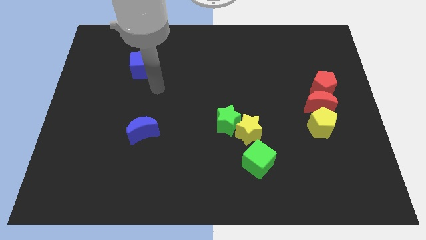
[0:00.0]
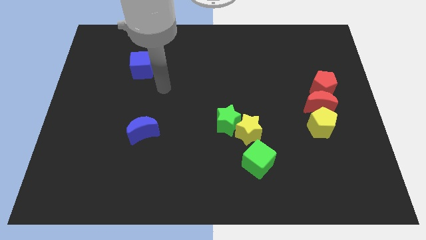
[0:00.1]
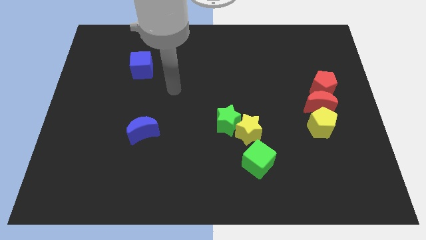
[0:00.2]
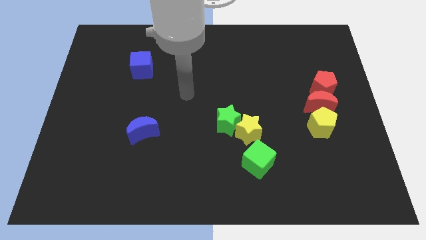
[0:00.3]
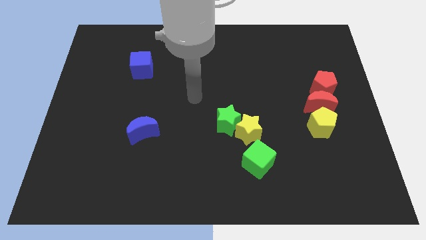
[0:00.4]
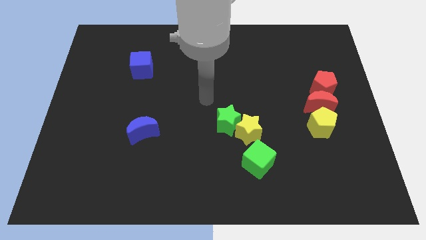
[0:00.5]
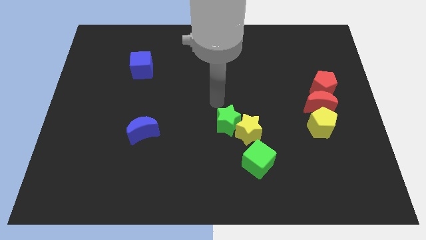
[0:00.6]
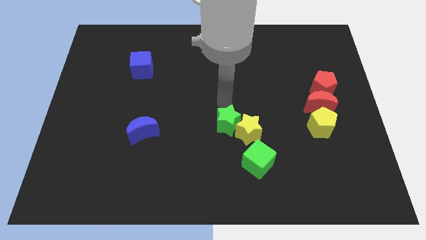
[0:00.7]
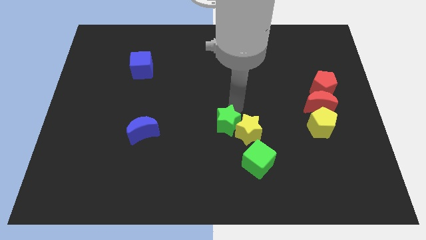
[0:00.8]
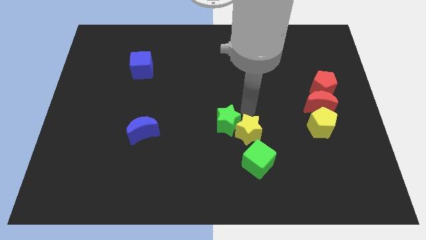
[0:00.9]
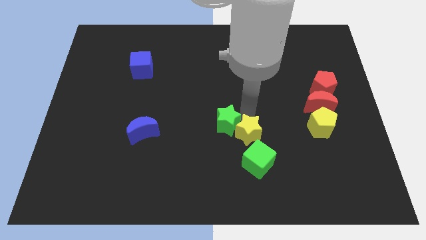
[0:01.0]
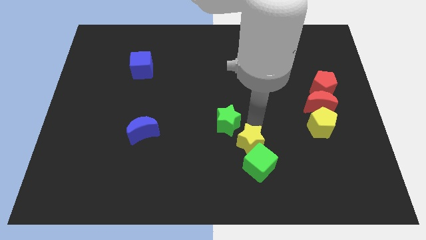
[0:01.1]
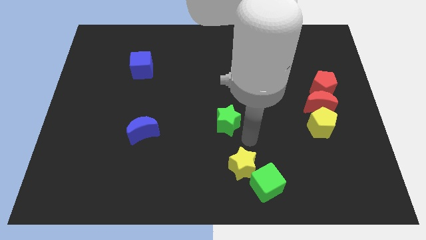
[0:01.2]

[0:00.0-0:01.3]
separate the green star from the yellow star

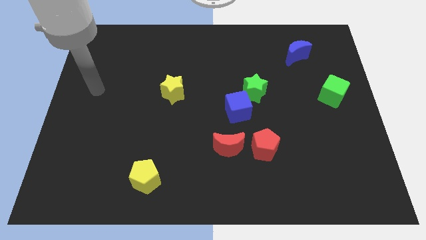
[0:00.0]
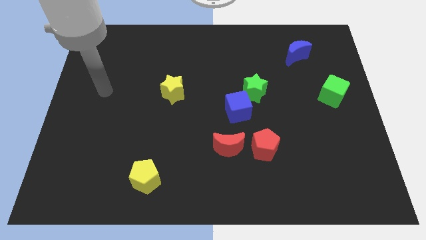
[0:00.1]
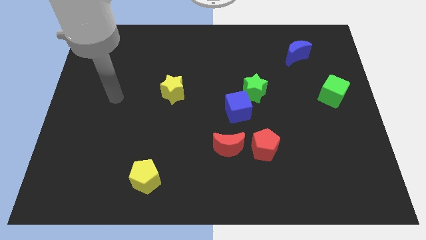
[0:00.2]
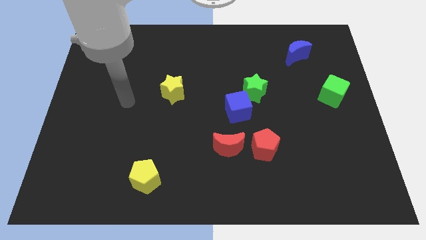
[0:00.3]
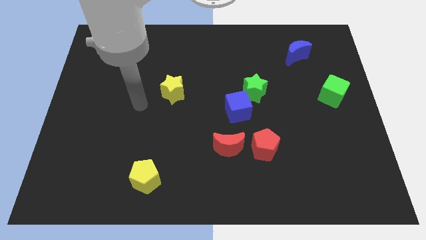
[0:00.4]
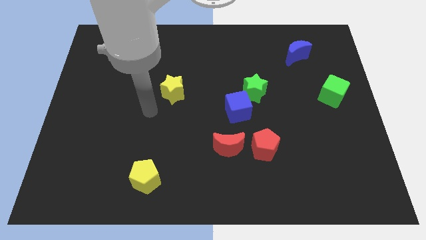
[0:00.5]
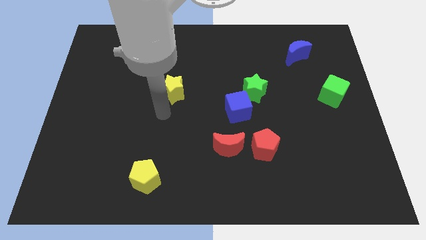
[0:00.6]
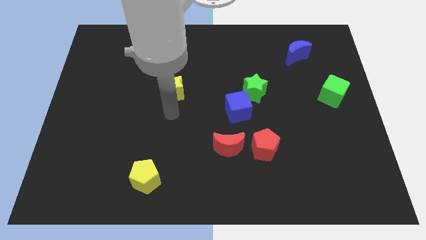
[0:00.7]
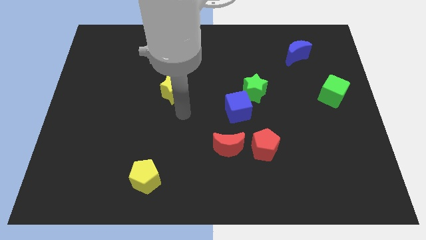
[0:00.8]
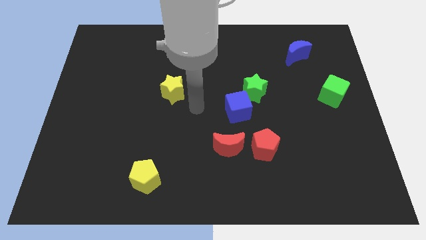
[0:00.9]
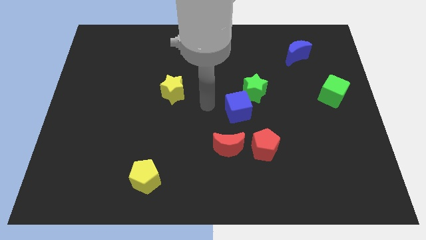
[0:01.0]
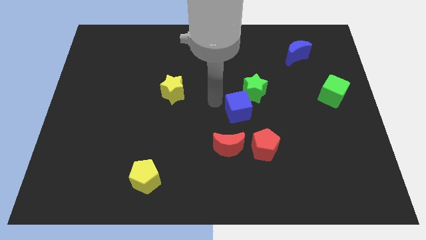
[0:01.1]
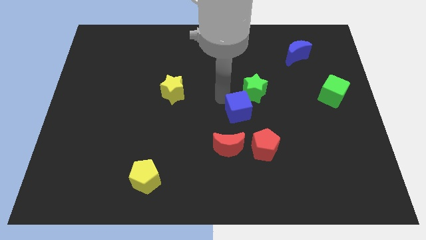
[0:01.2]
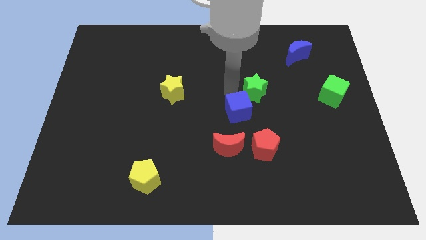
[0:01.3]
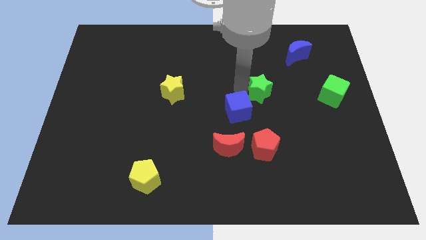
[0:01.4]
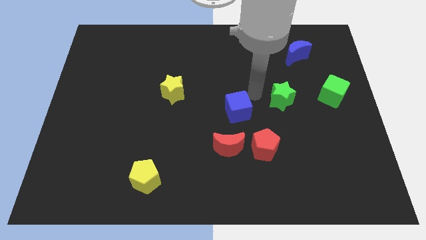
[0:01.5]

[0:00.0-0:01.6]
pull the blue cube apart from the green star

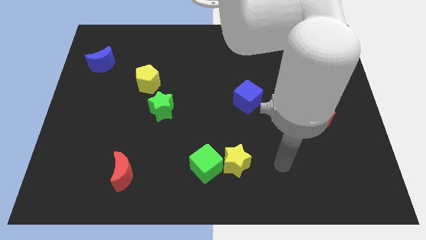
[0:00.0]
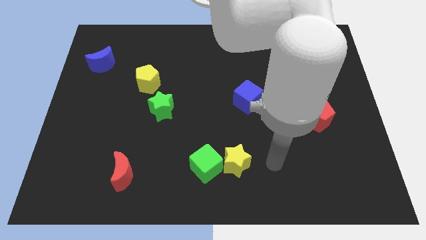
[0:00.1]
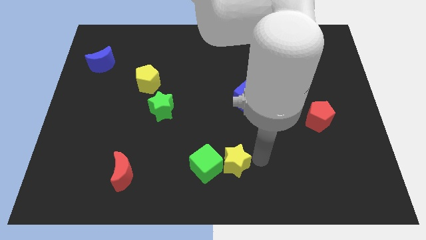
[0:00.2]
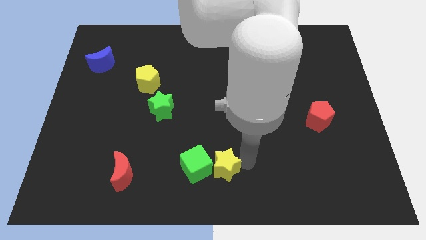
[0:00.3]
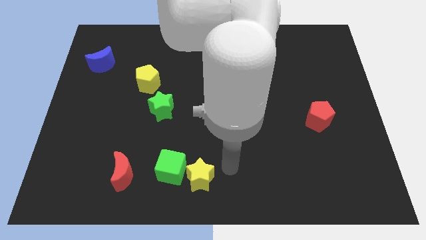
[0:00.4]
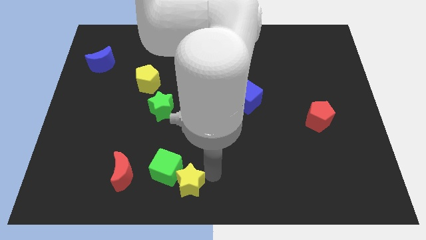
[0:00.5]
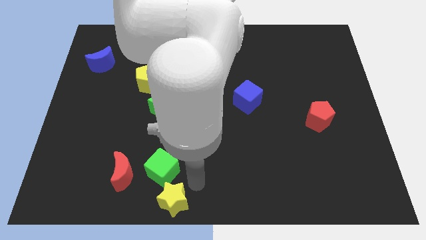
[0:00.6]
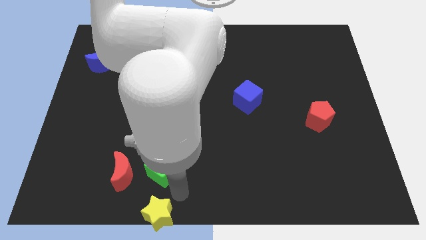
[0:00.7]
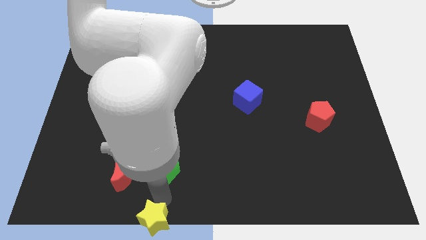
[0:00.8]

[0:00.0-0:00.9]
move the green cube away from the yellow star

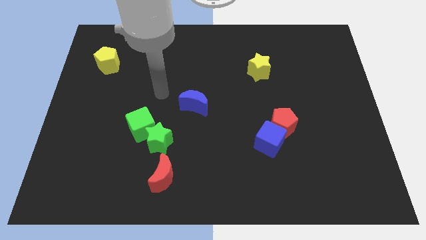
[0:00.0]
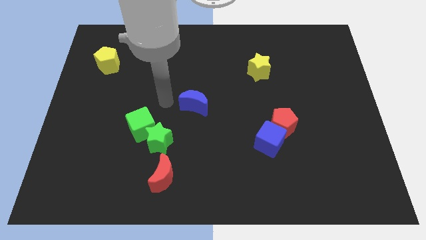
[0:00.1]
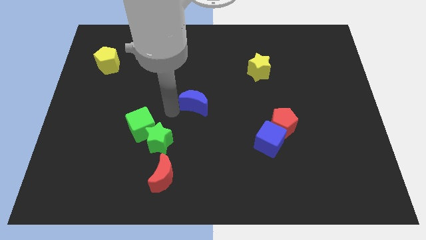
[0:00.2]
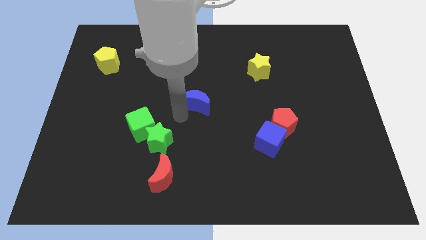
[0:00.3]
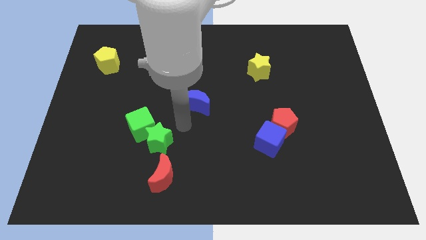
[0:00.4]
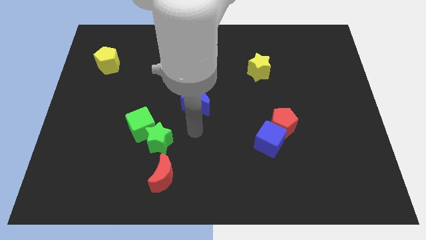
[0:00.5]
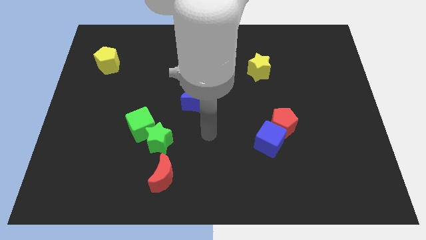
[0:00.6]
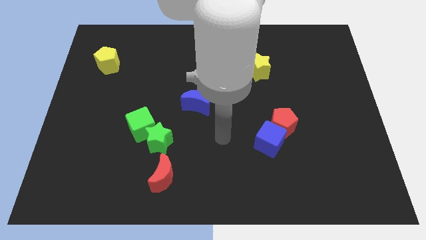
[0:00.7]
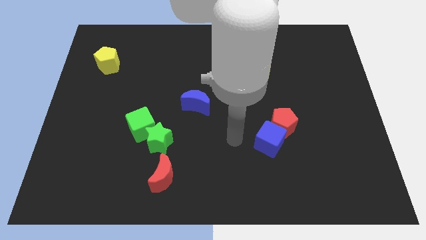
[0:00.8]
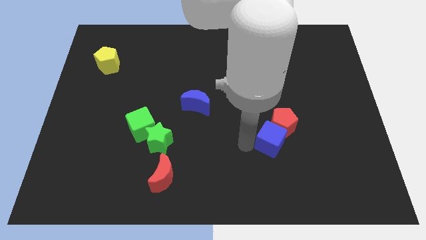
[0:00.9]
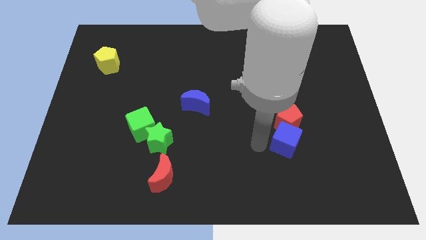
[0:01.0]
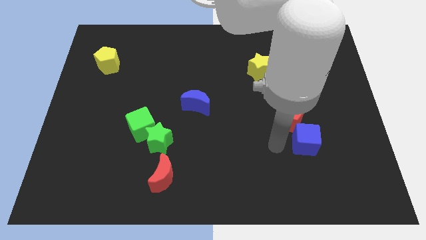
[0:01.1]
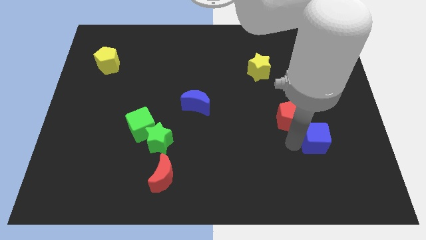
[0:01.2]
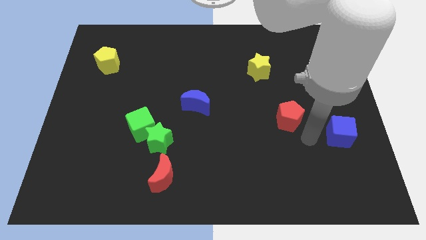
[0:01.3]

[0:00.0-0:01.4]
move the red pentagon away from the blue cube

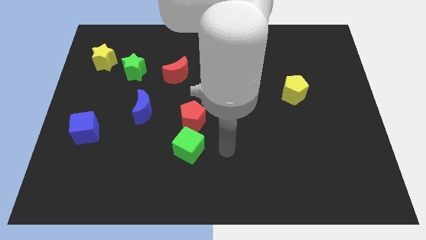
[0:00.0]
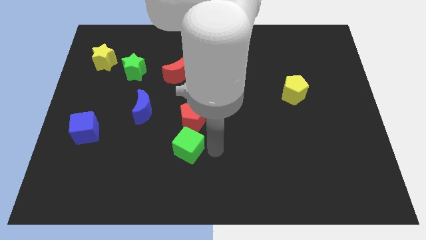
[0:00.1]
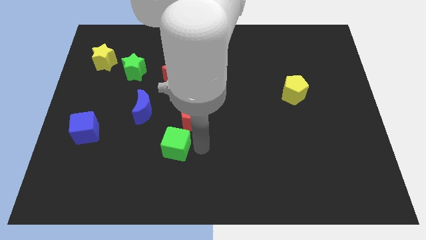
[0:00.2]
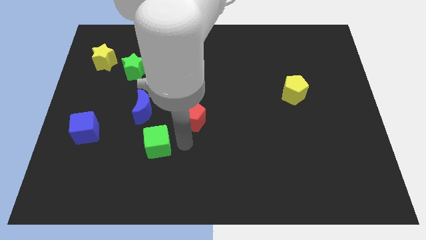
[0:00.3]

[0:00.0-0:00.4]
move the red pentagon away from the green cube

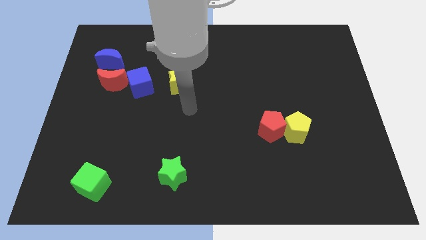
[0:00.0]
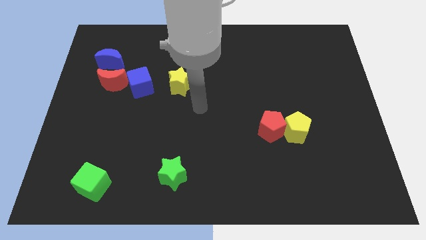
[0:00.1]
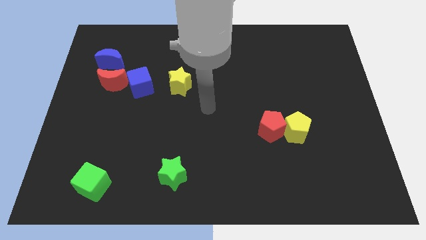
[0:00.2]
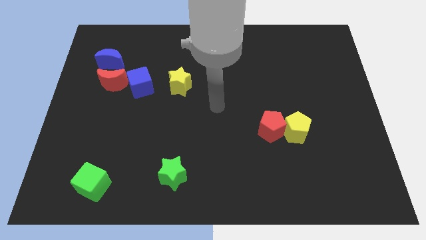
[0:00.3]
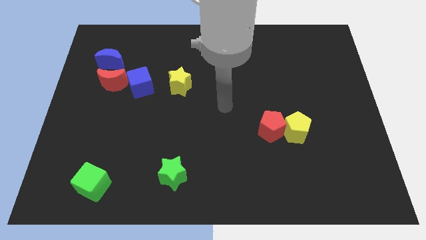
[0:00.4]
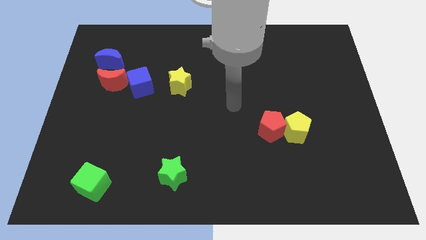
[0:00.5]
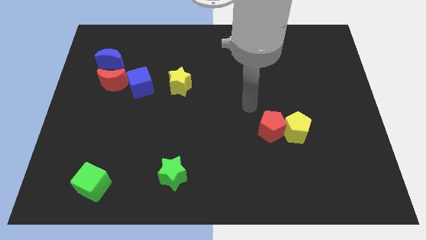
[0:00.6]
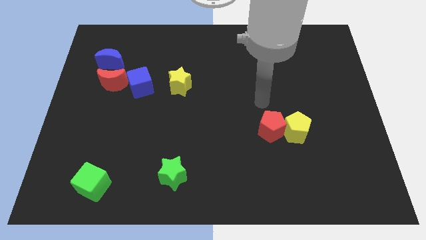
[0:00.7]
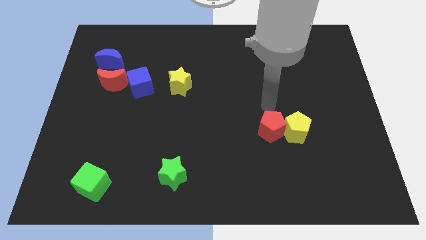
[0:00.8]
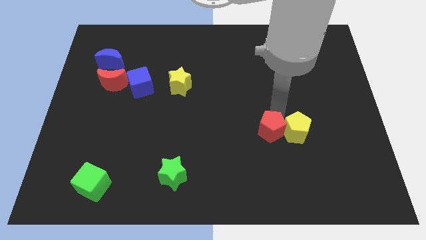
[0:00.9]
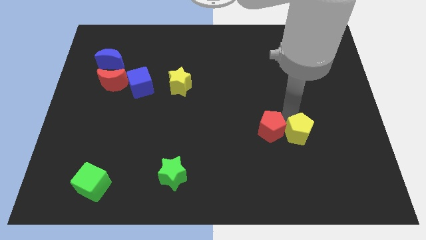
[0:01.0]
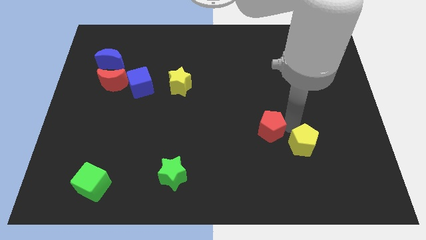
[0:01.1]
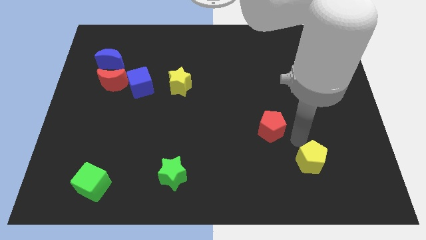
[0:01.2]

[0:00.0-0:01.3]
separate the red pentagon from the yellow pentagon

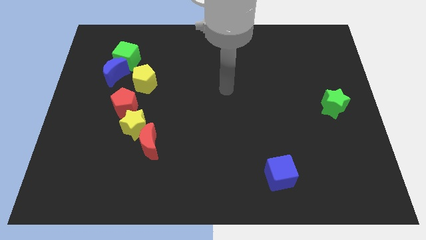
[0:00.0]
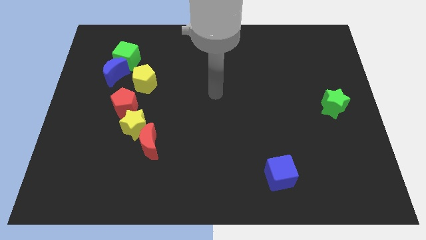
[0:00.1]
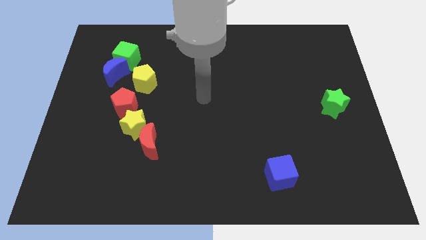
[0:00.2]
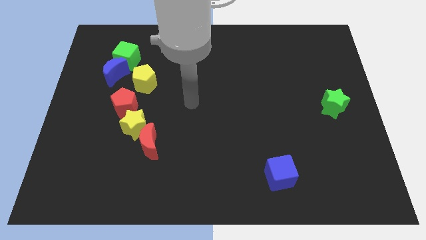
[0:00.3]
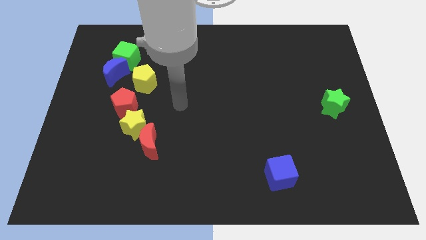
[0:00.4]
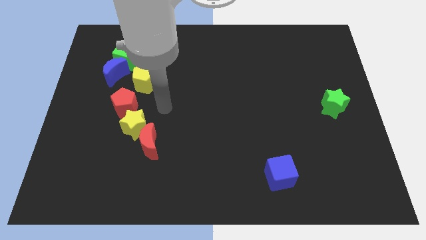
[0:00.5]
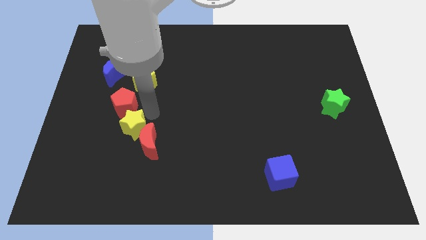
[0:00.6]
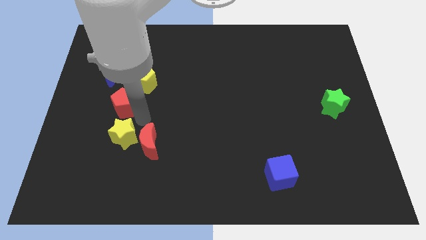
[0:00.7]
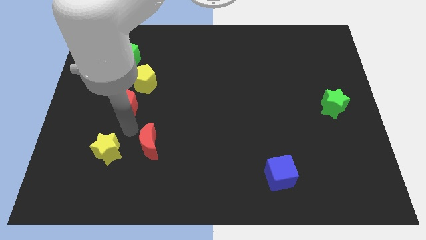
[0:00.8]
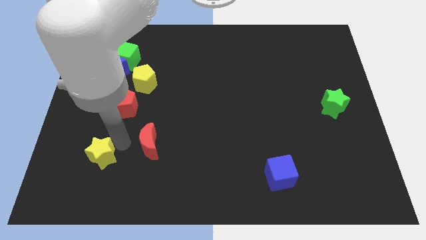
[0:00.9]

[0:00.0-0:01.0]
pull the red moon apart from the yellow star

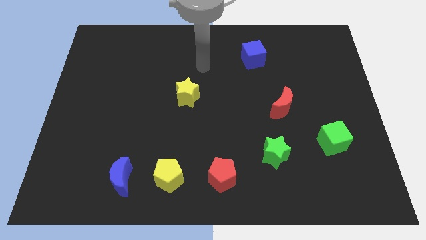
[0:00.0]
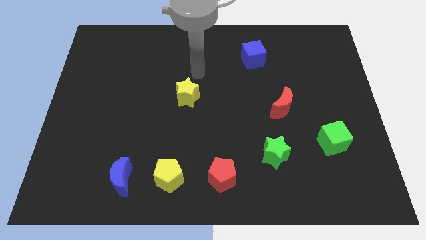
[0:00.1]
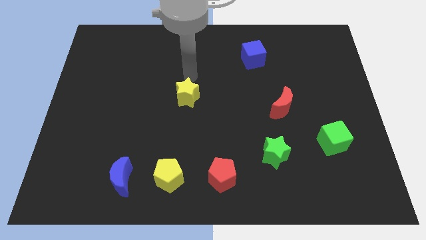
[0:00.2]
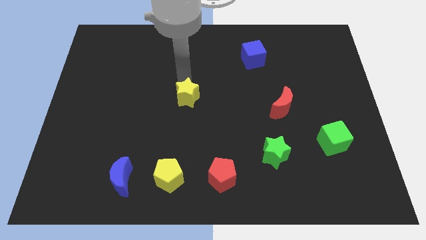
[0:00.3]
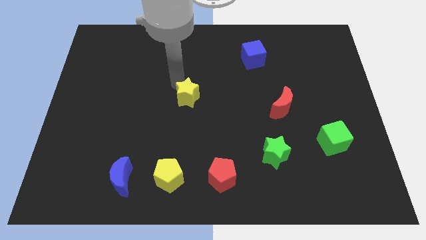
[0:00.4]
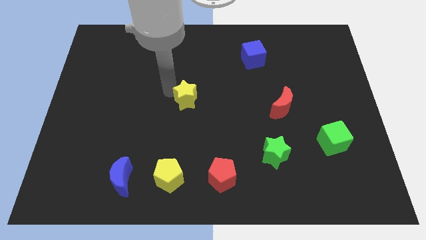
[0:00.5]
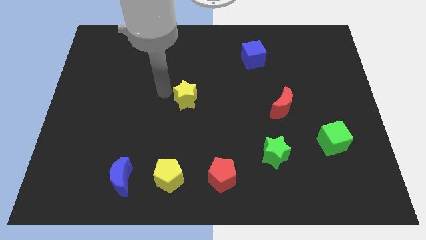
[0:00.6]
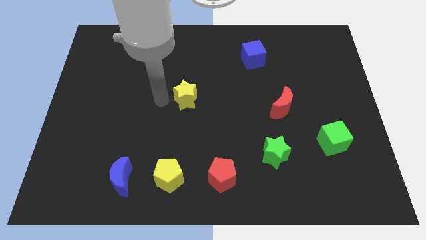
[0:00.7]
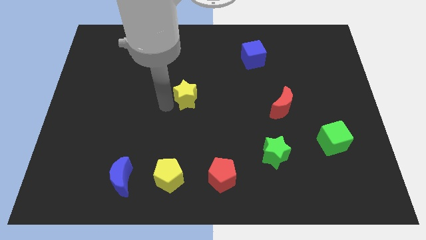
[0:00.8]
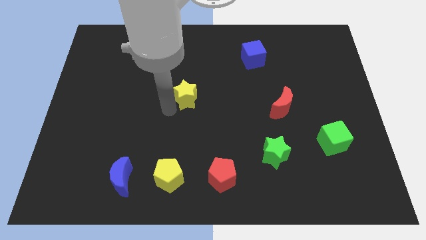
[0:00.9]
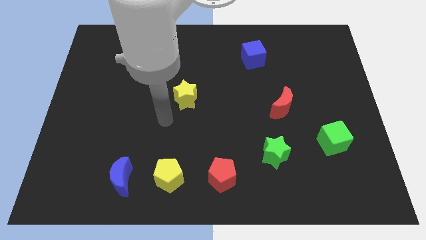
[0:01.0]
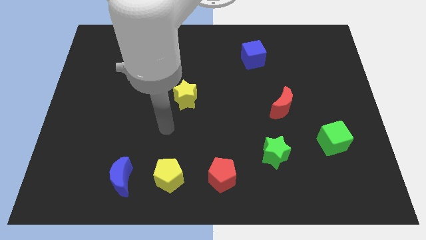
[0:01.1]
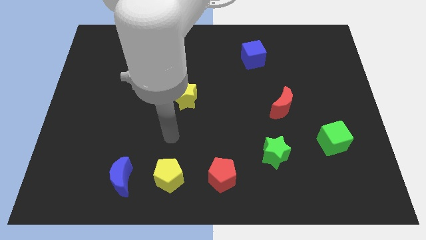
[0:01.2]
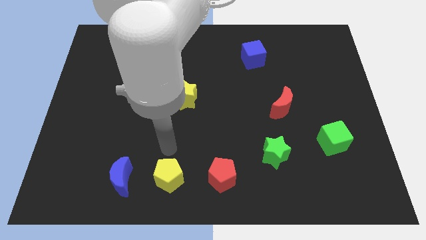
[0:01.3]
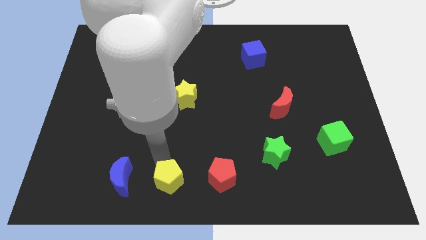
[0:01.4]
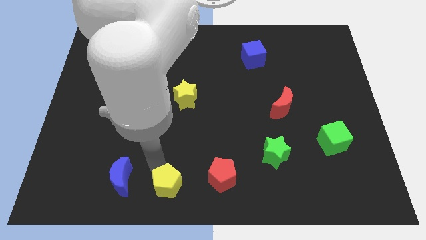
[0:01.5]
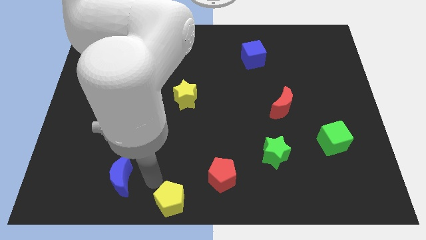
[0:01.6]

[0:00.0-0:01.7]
move the blue moon away from the yellow pentagon
